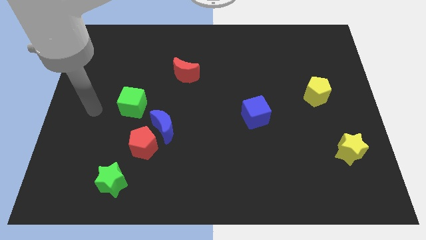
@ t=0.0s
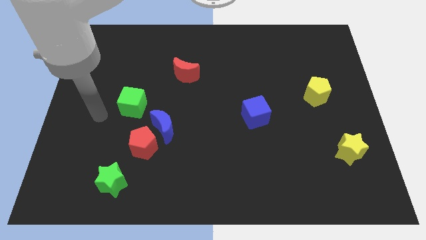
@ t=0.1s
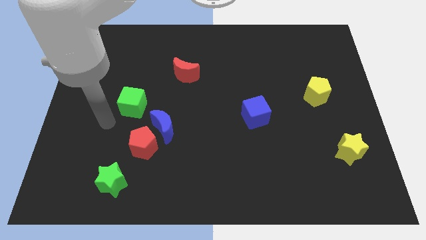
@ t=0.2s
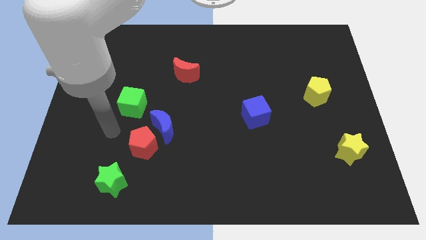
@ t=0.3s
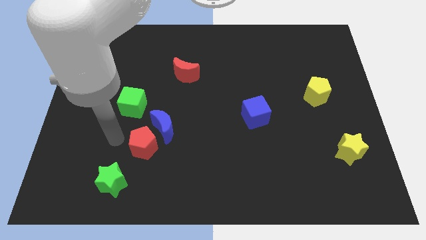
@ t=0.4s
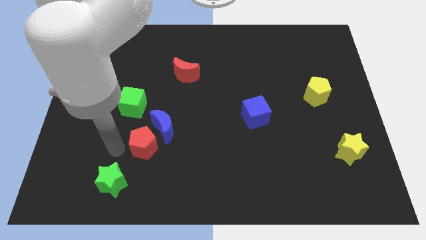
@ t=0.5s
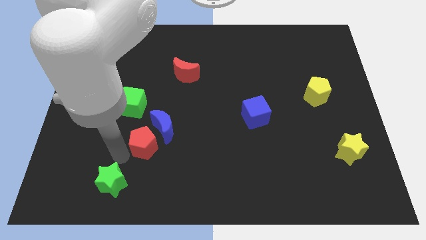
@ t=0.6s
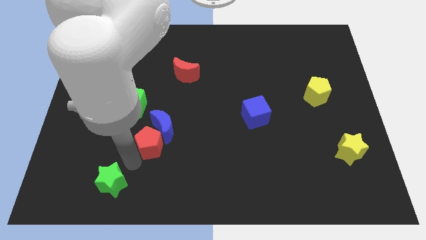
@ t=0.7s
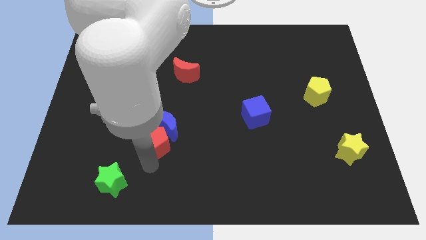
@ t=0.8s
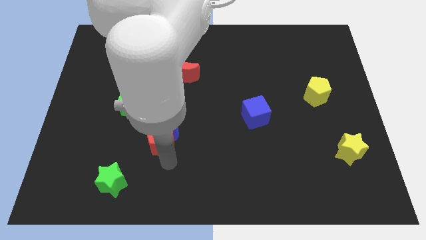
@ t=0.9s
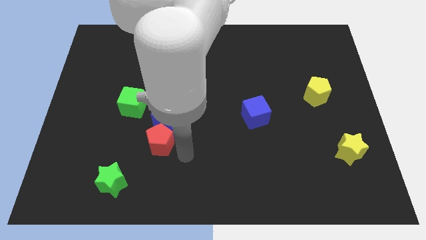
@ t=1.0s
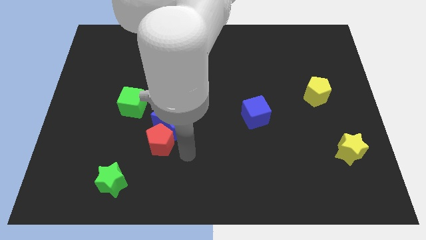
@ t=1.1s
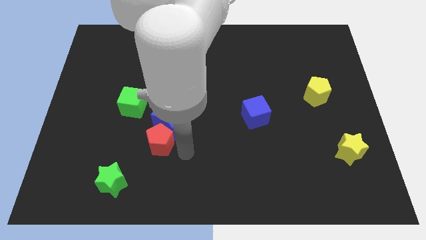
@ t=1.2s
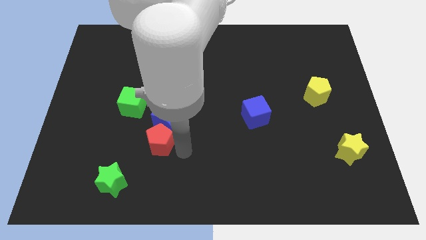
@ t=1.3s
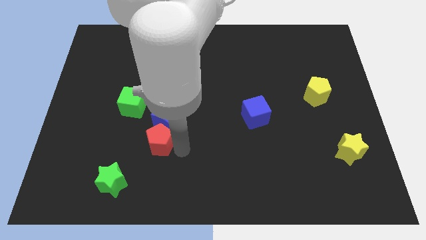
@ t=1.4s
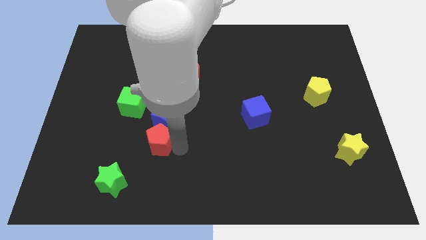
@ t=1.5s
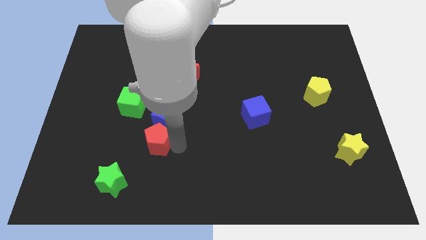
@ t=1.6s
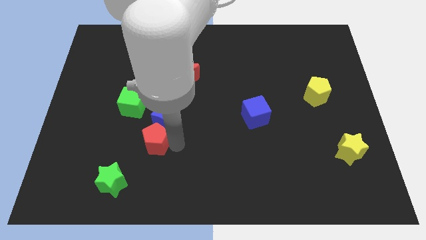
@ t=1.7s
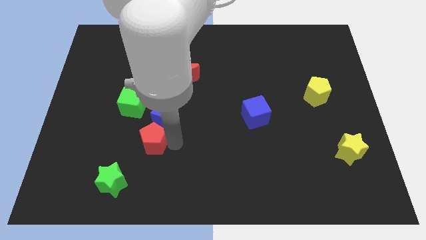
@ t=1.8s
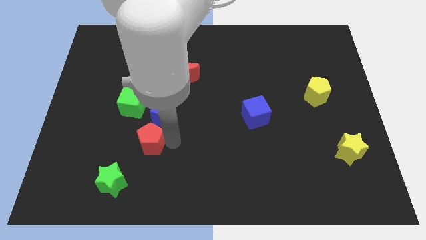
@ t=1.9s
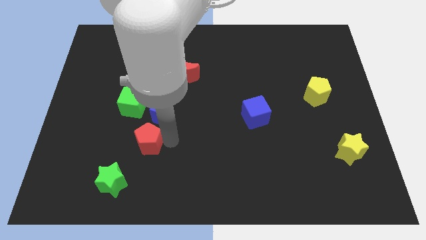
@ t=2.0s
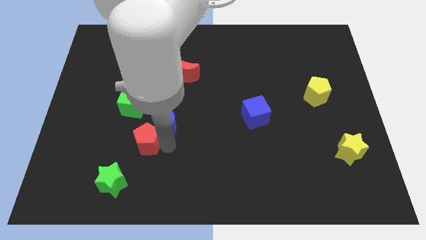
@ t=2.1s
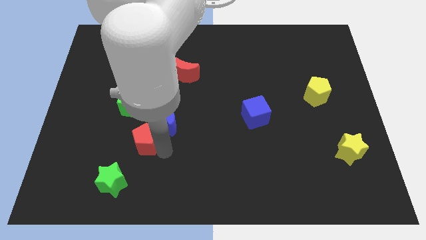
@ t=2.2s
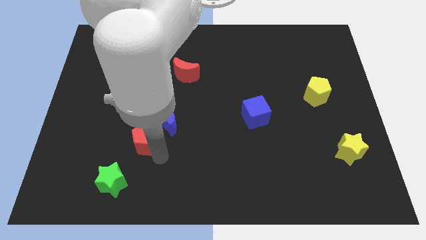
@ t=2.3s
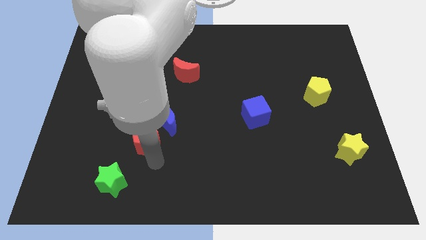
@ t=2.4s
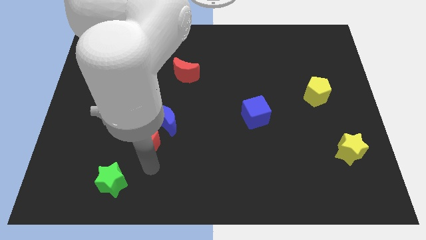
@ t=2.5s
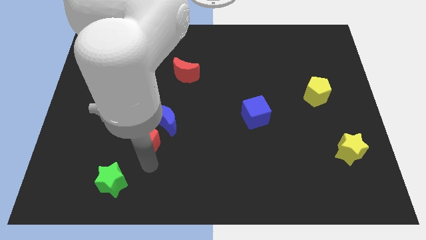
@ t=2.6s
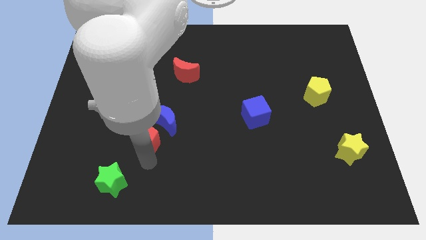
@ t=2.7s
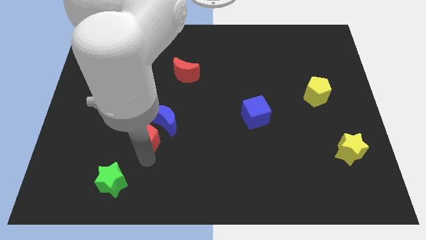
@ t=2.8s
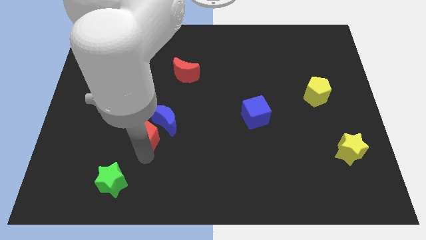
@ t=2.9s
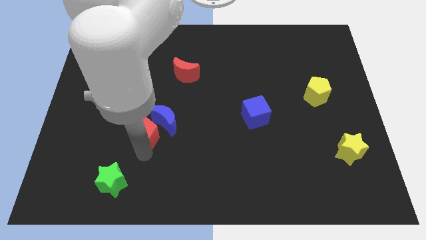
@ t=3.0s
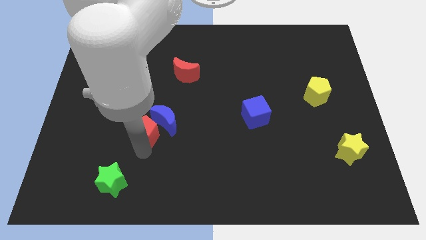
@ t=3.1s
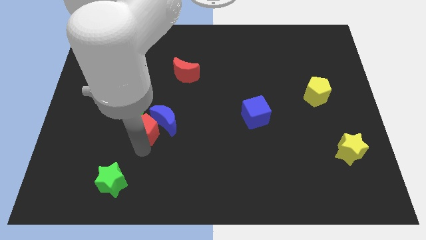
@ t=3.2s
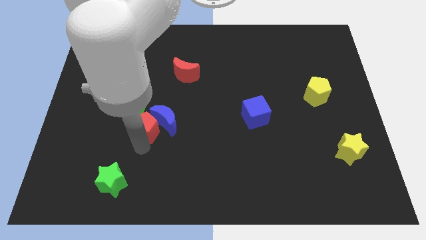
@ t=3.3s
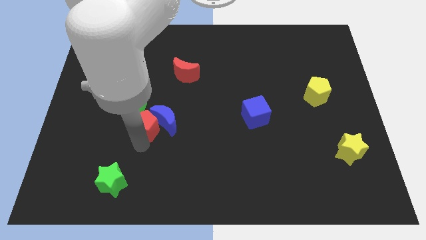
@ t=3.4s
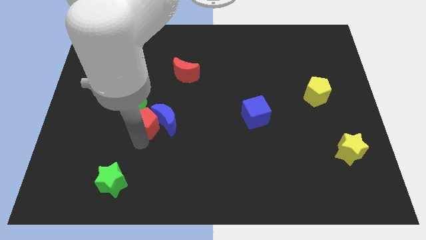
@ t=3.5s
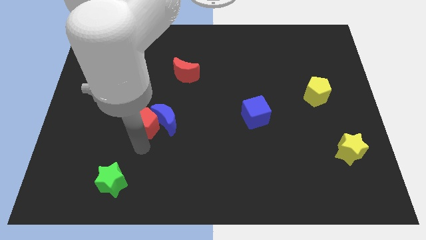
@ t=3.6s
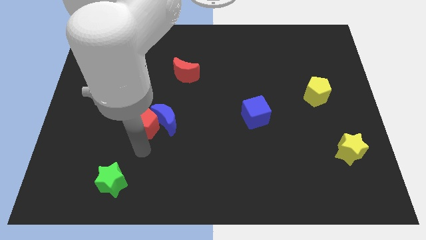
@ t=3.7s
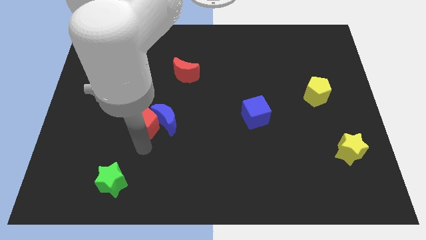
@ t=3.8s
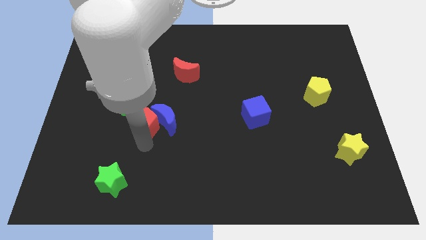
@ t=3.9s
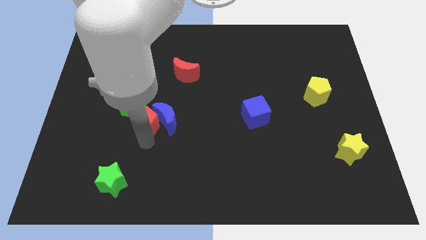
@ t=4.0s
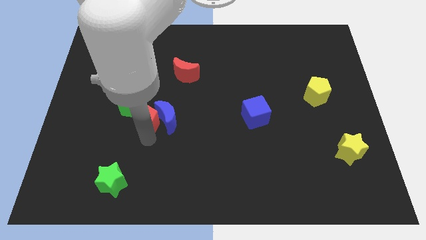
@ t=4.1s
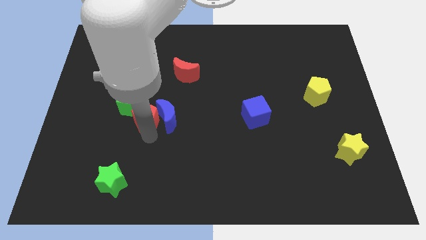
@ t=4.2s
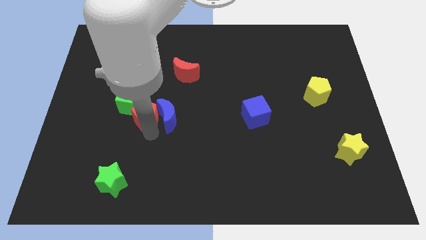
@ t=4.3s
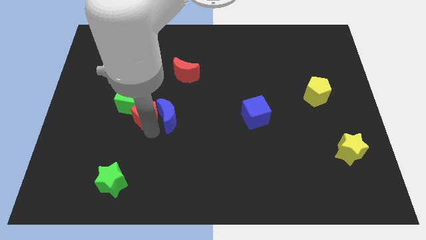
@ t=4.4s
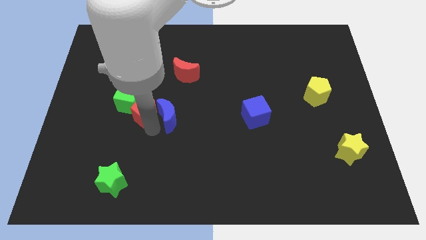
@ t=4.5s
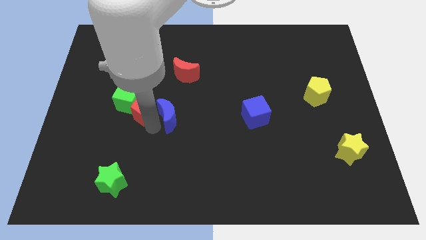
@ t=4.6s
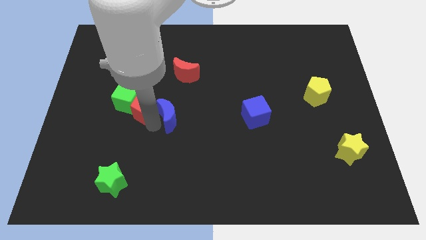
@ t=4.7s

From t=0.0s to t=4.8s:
pull the red pentagon apart from the blue moon and green star

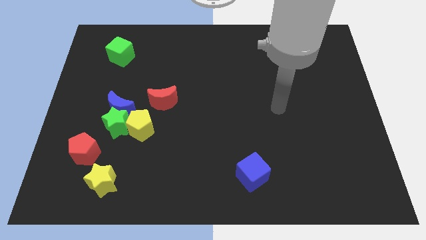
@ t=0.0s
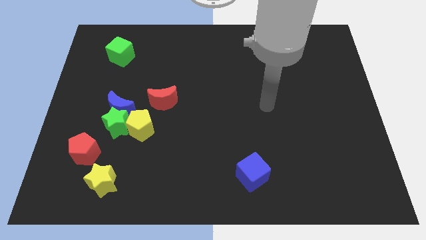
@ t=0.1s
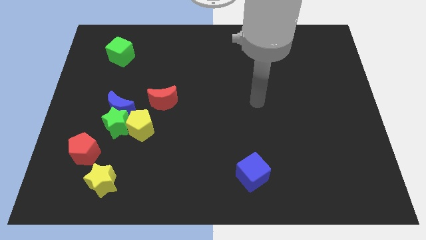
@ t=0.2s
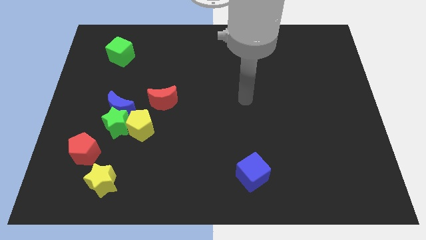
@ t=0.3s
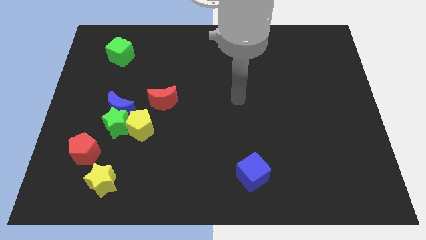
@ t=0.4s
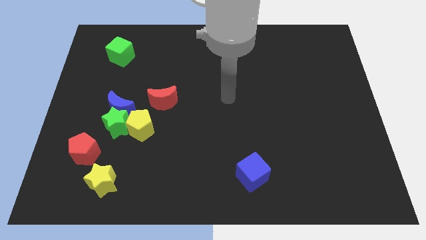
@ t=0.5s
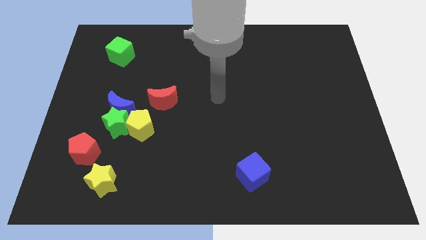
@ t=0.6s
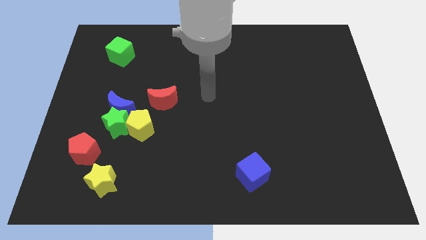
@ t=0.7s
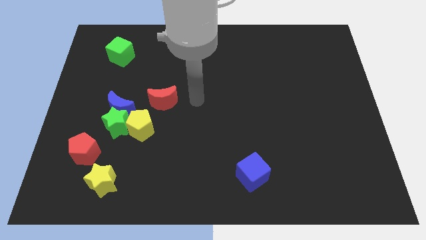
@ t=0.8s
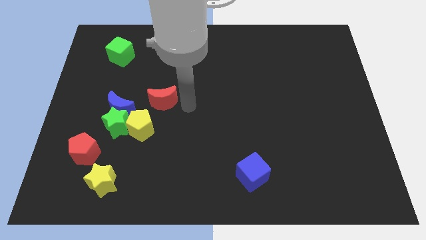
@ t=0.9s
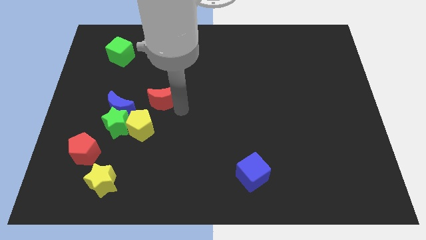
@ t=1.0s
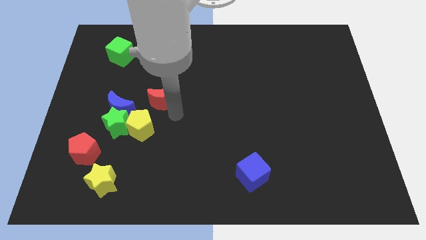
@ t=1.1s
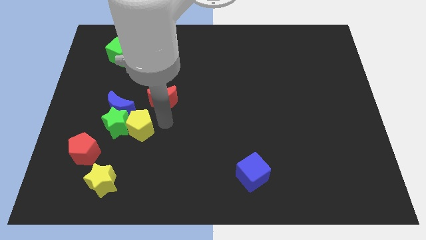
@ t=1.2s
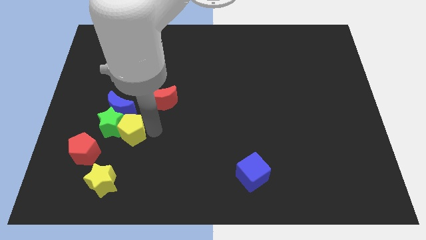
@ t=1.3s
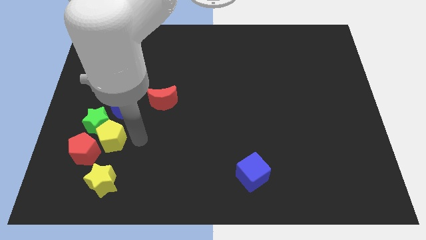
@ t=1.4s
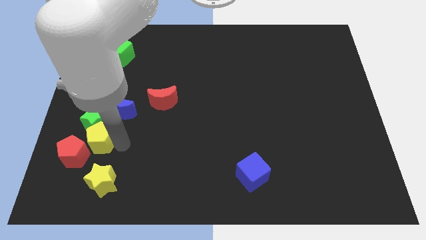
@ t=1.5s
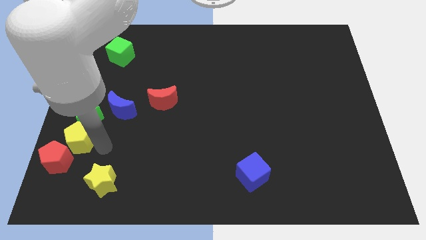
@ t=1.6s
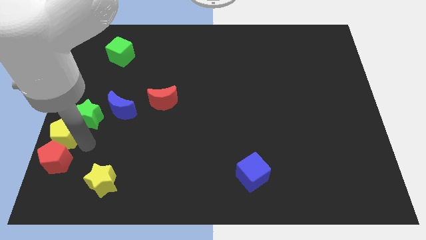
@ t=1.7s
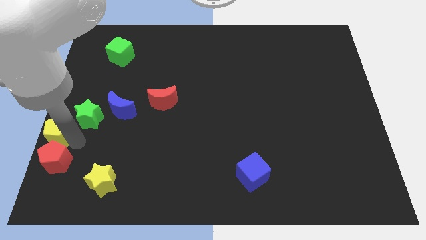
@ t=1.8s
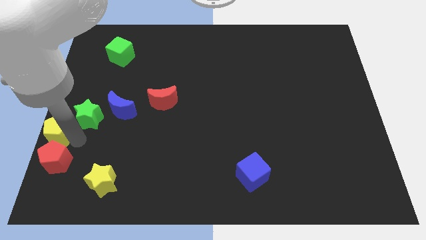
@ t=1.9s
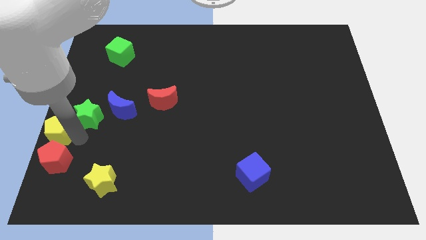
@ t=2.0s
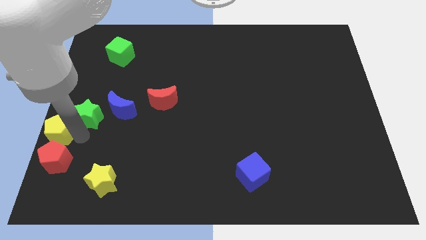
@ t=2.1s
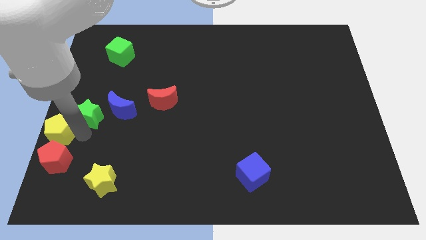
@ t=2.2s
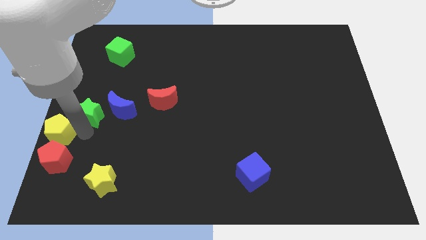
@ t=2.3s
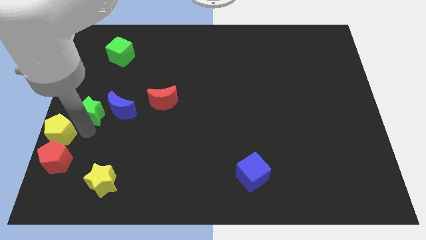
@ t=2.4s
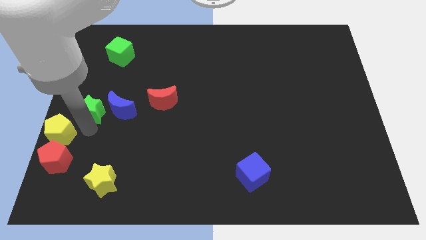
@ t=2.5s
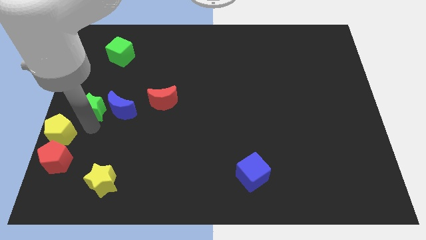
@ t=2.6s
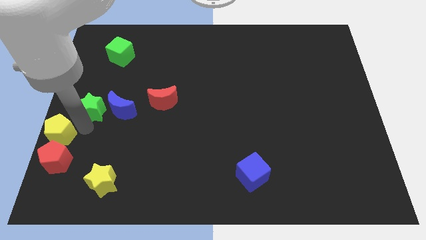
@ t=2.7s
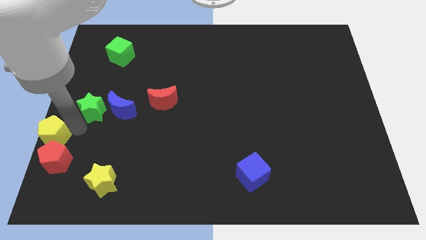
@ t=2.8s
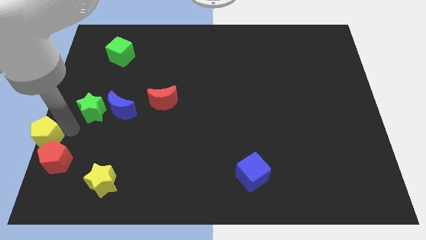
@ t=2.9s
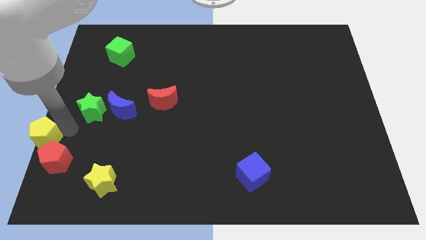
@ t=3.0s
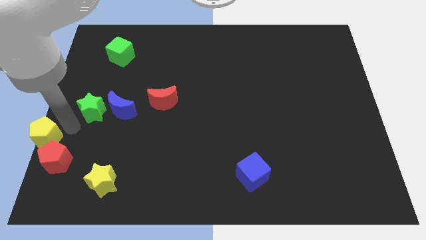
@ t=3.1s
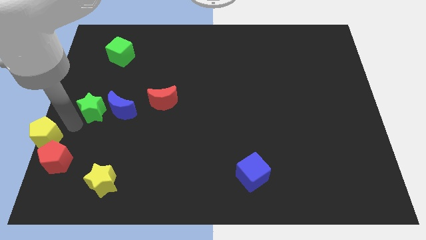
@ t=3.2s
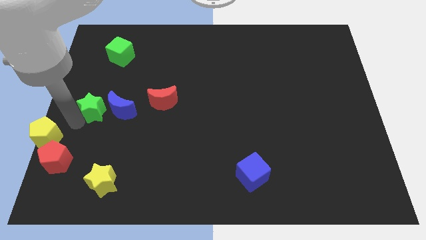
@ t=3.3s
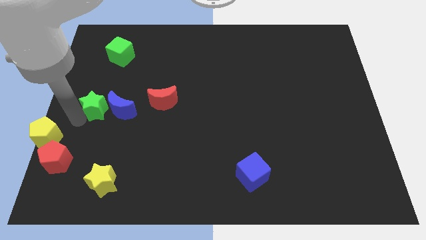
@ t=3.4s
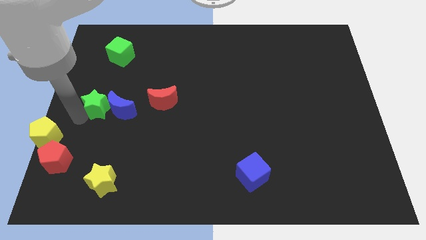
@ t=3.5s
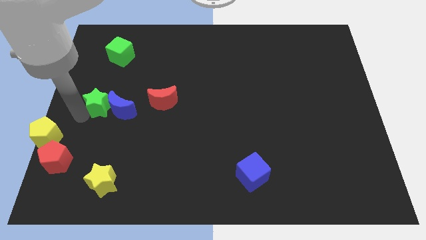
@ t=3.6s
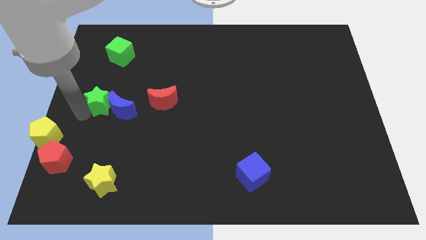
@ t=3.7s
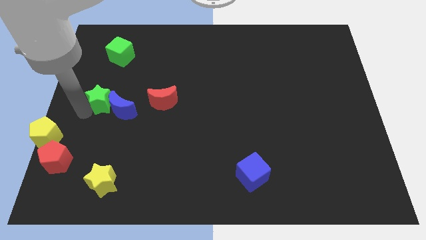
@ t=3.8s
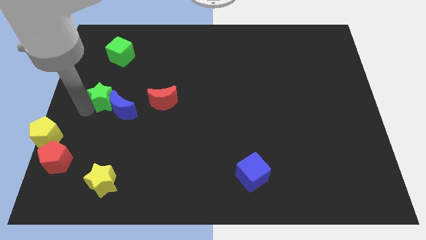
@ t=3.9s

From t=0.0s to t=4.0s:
move the green star away from the group of blocks

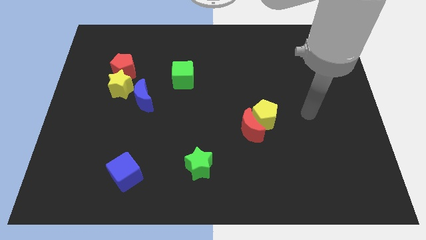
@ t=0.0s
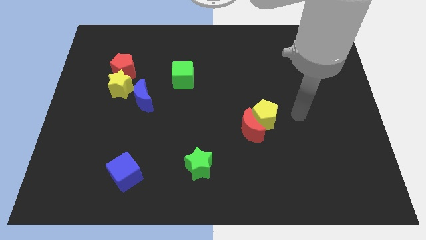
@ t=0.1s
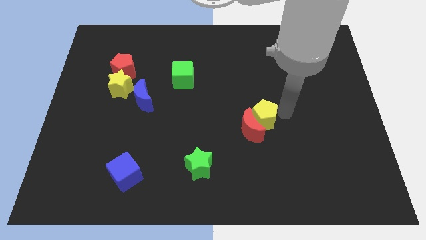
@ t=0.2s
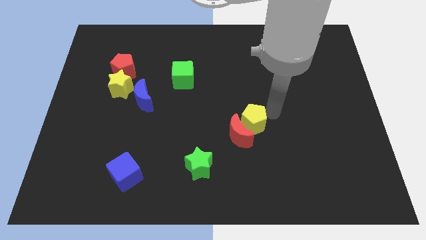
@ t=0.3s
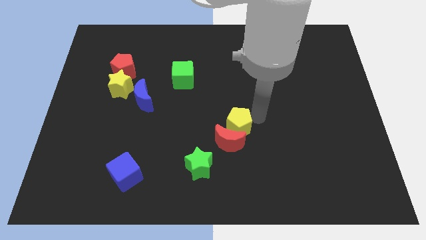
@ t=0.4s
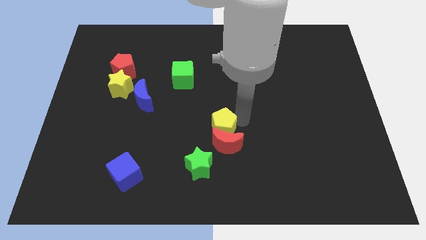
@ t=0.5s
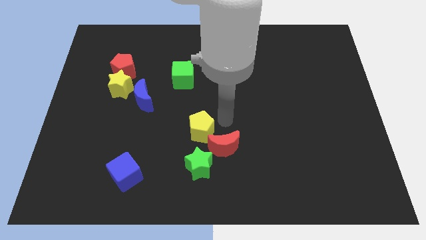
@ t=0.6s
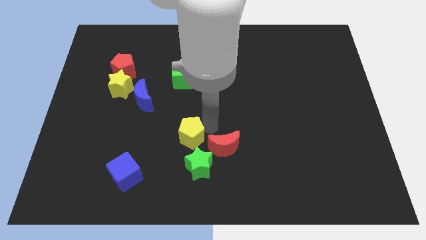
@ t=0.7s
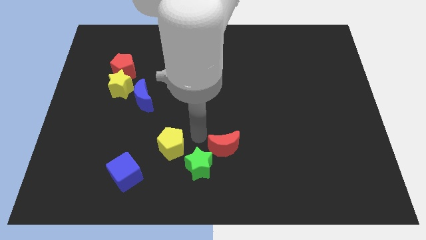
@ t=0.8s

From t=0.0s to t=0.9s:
pull the red moon apart from the yellow pentagon
